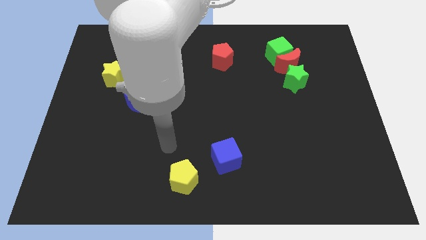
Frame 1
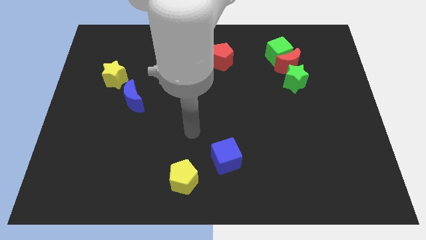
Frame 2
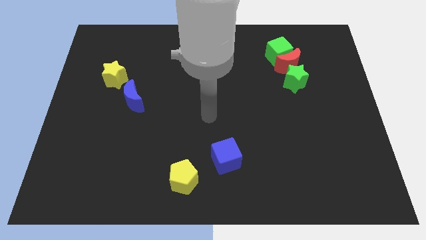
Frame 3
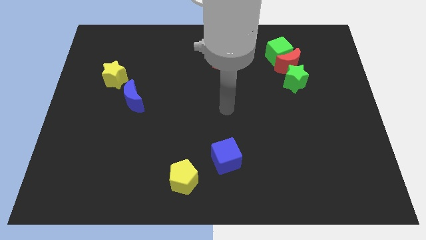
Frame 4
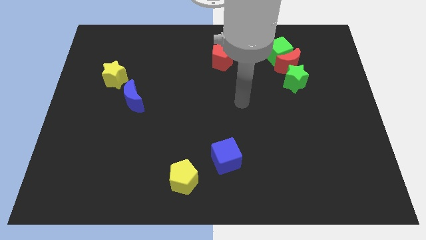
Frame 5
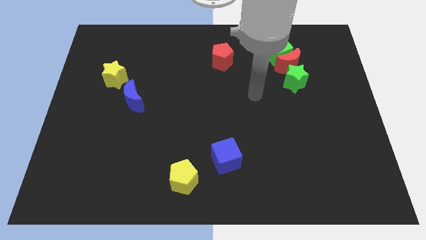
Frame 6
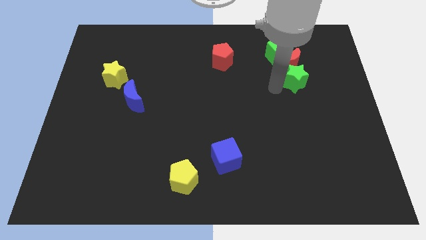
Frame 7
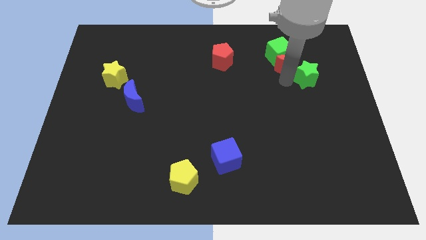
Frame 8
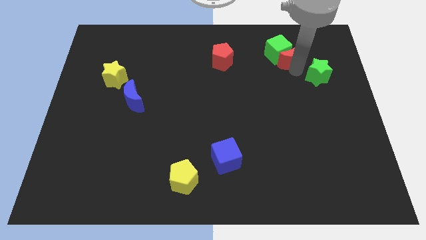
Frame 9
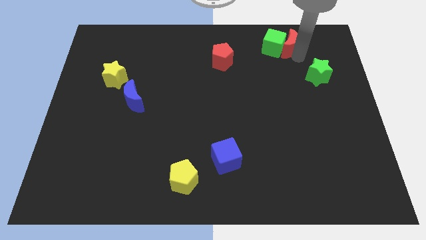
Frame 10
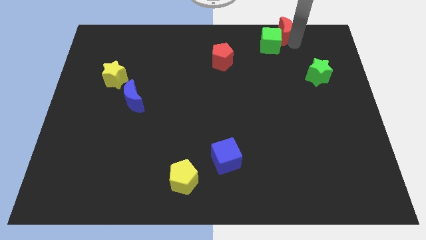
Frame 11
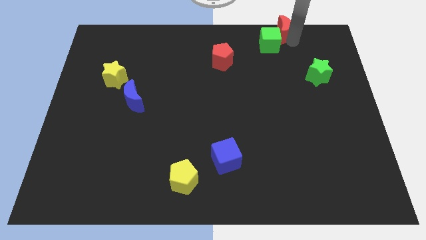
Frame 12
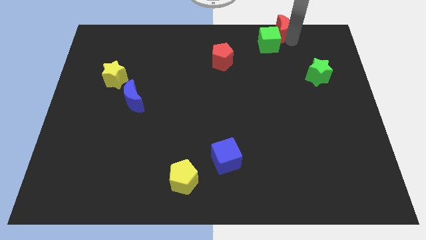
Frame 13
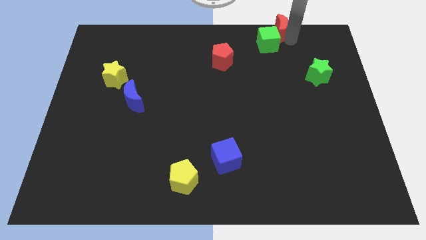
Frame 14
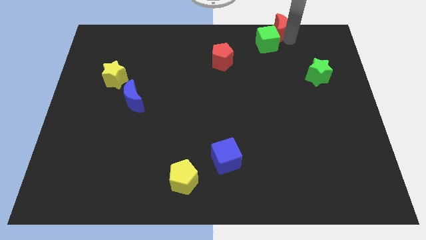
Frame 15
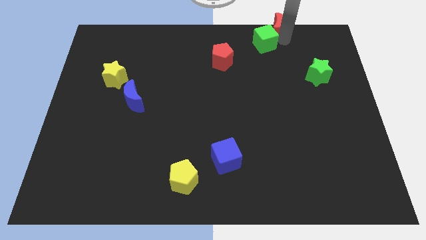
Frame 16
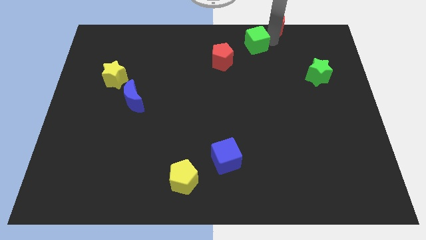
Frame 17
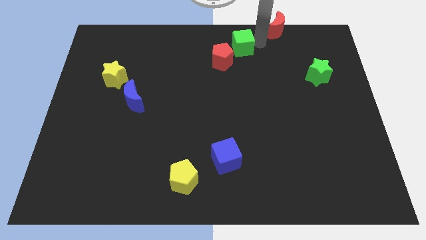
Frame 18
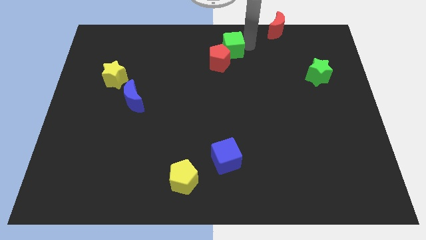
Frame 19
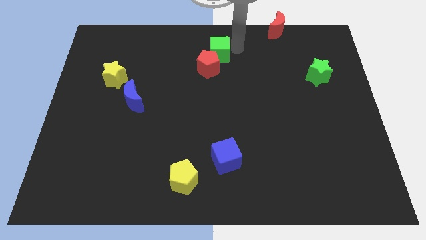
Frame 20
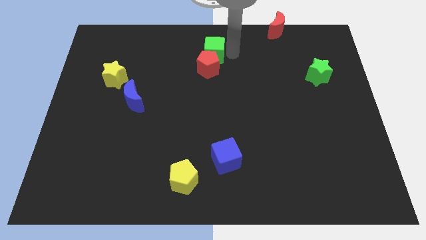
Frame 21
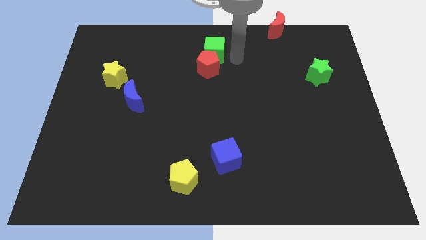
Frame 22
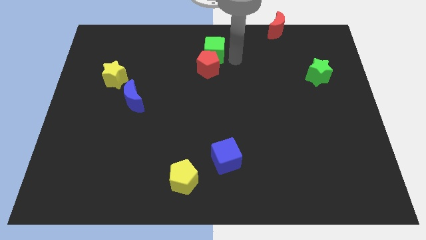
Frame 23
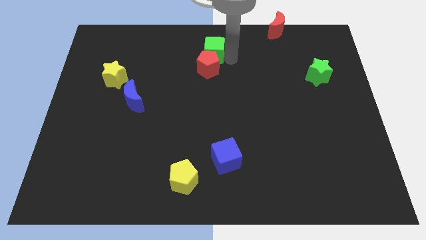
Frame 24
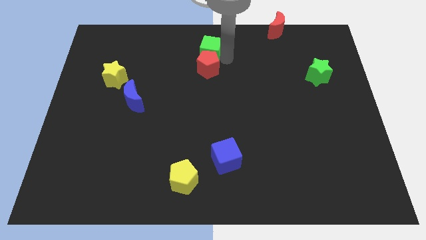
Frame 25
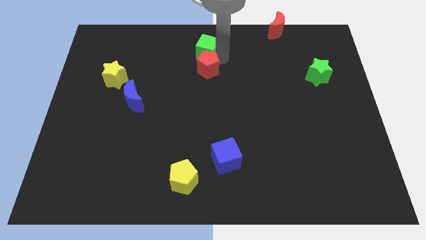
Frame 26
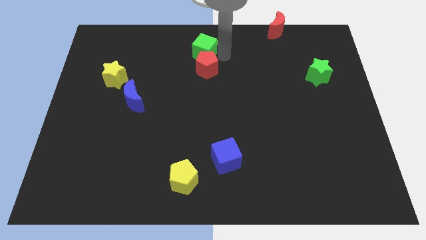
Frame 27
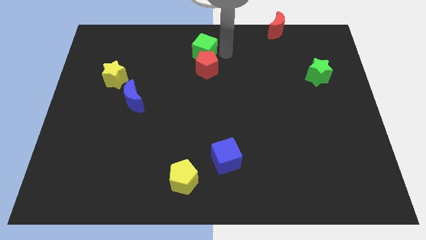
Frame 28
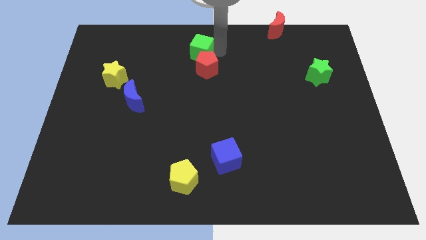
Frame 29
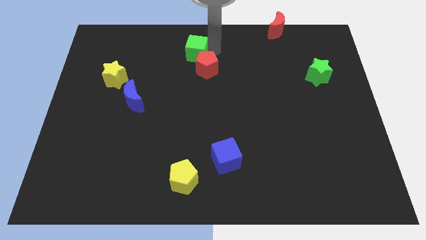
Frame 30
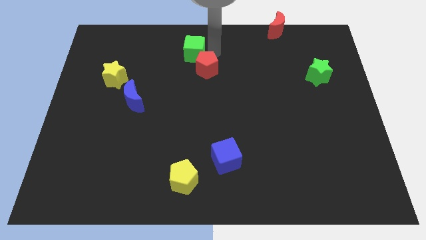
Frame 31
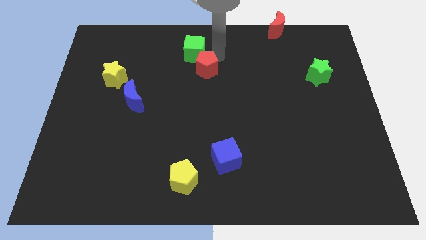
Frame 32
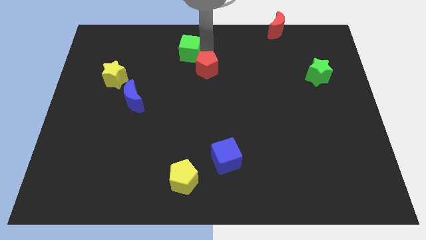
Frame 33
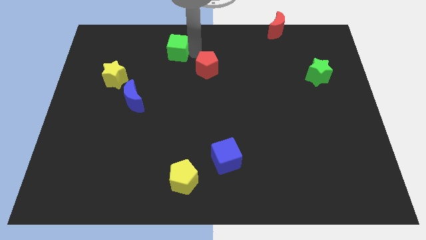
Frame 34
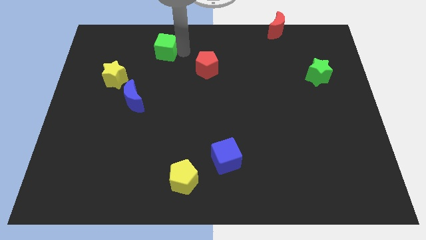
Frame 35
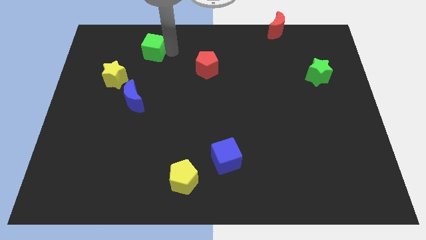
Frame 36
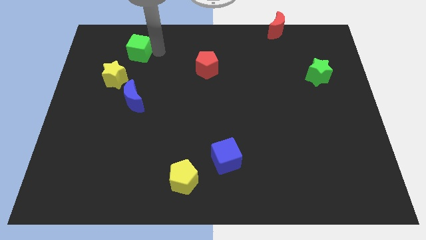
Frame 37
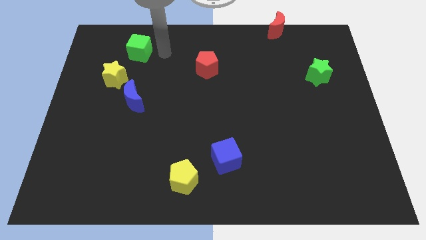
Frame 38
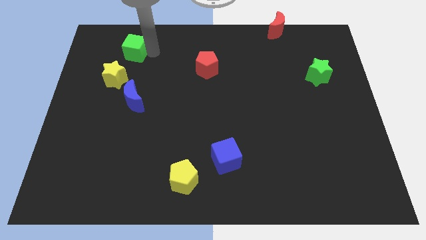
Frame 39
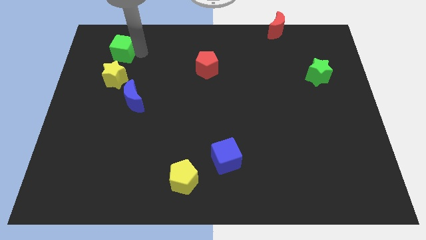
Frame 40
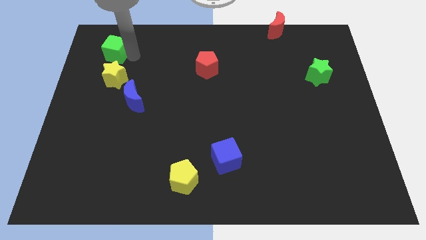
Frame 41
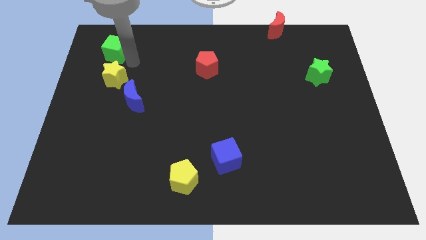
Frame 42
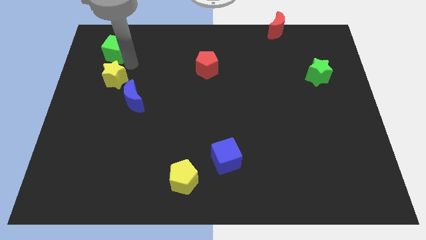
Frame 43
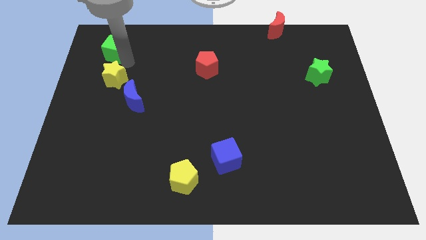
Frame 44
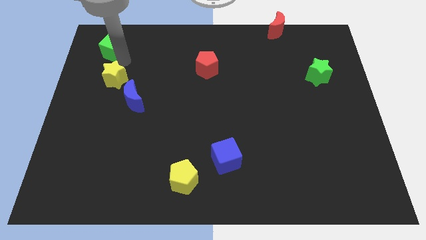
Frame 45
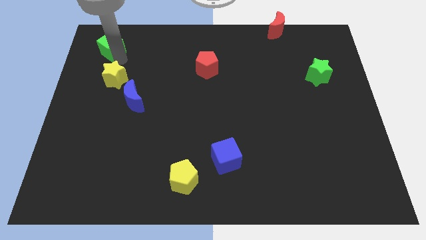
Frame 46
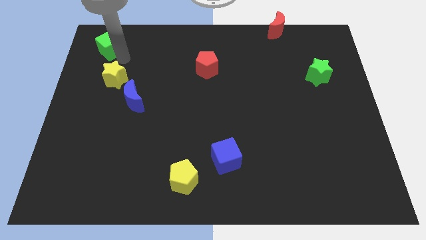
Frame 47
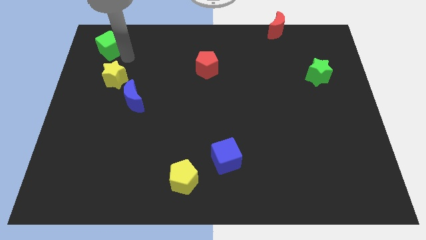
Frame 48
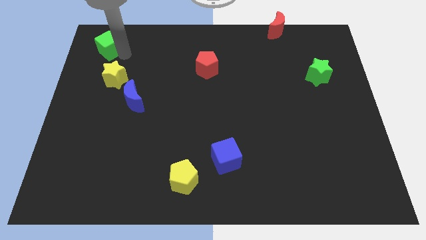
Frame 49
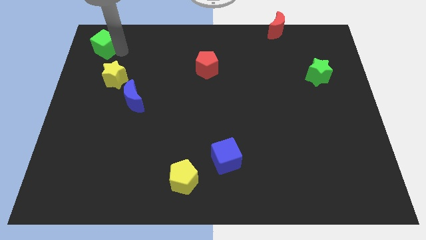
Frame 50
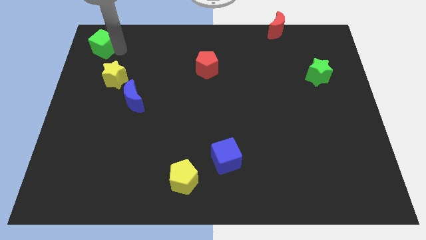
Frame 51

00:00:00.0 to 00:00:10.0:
put the green cube to the upper left corner
